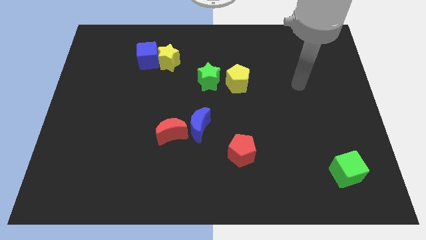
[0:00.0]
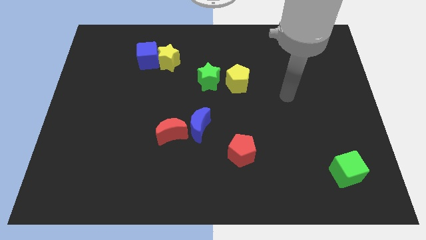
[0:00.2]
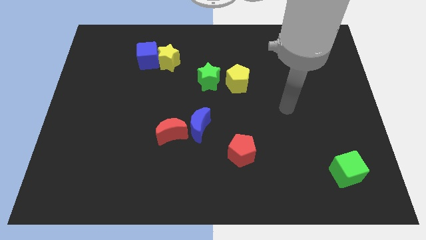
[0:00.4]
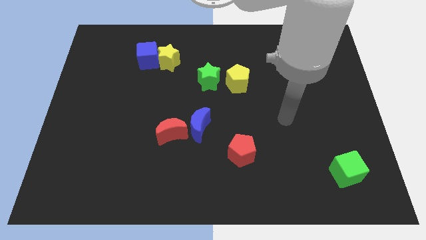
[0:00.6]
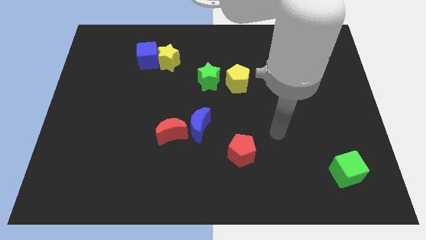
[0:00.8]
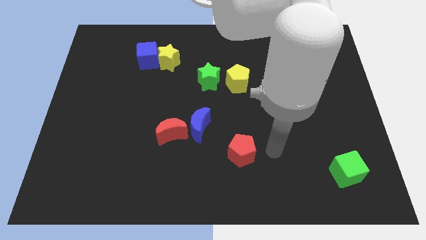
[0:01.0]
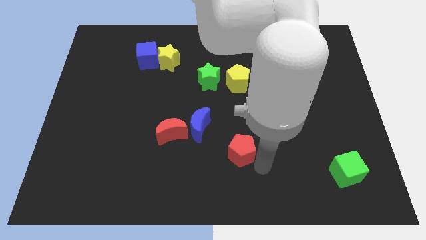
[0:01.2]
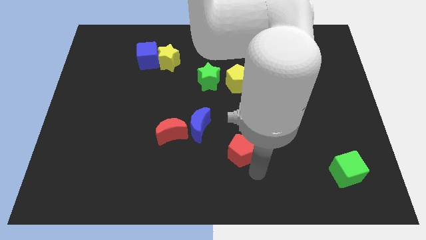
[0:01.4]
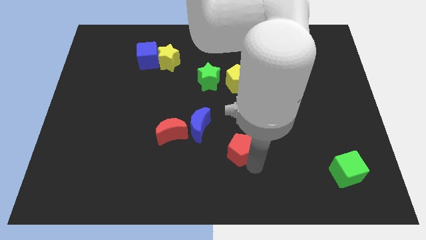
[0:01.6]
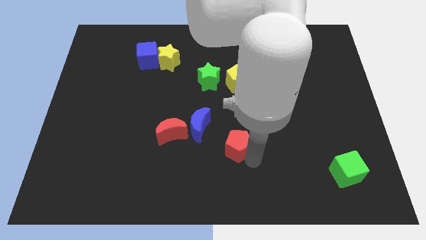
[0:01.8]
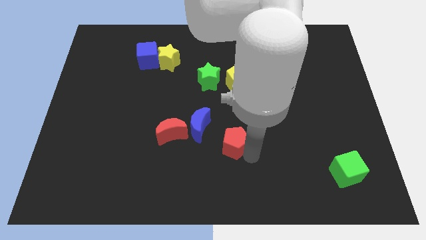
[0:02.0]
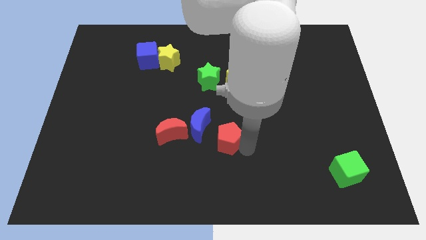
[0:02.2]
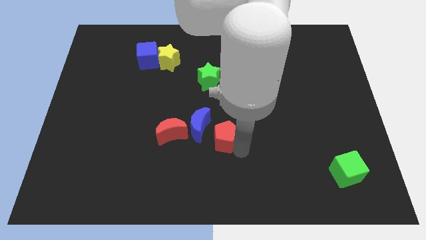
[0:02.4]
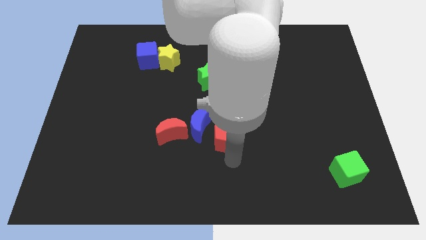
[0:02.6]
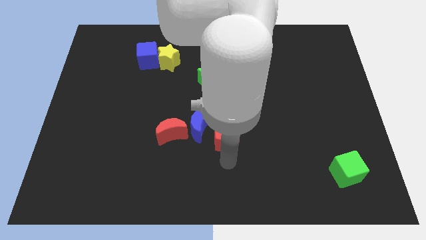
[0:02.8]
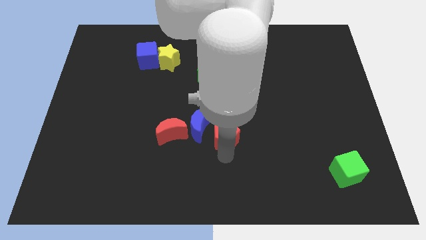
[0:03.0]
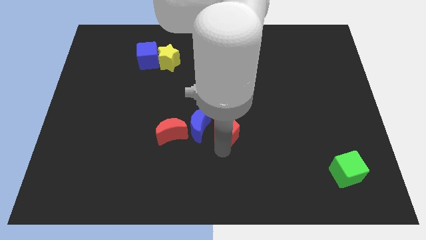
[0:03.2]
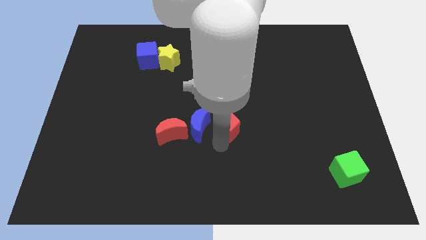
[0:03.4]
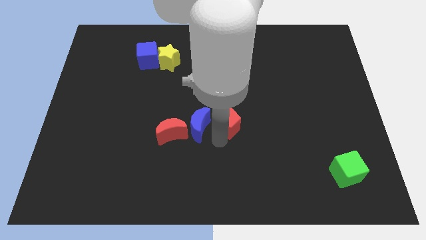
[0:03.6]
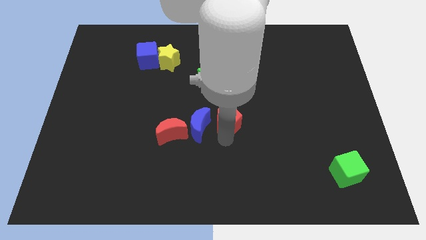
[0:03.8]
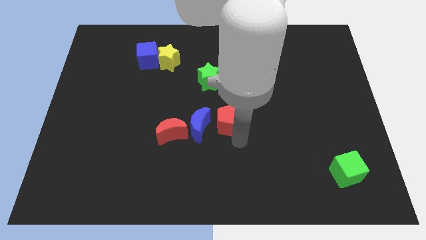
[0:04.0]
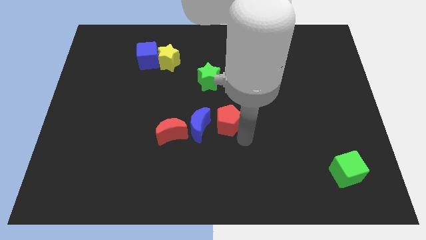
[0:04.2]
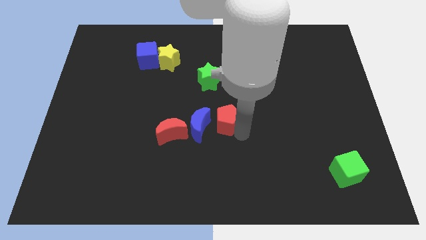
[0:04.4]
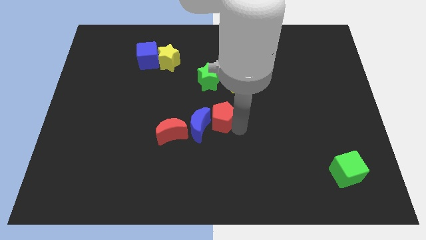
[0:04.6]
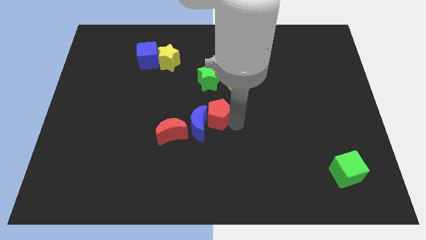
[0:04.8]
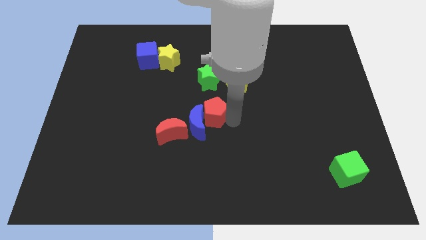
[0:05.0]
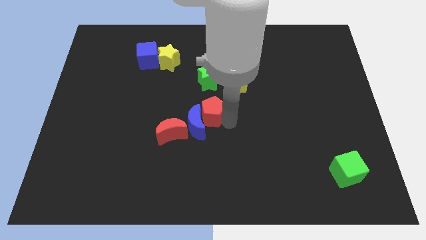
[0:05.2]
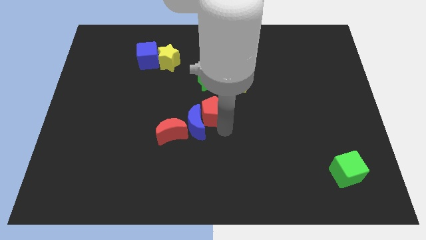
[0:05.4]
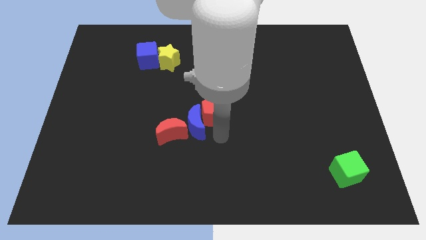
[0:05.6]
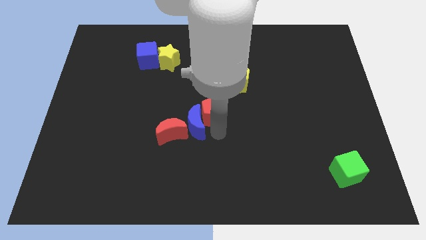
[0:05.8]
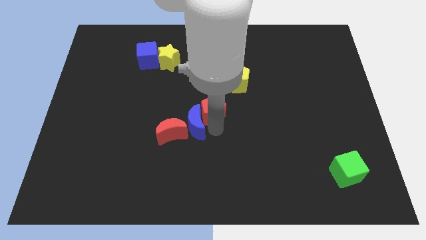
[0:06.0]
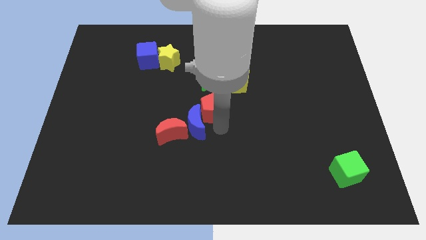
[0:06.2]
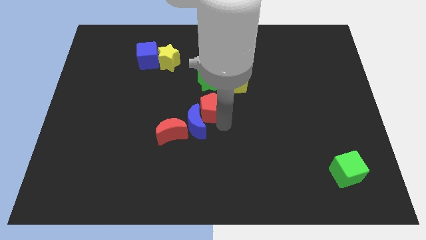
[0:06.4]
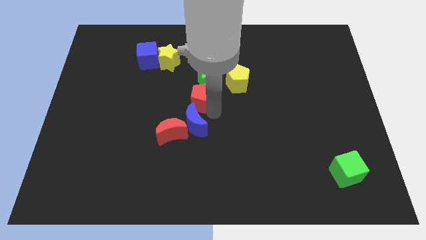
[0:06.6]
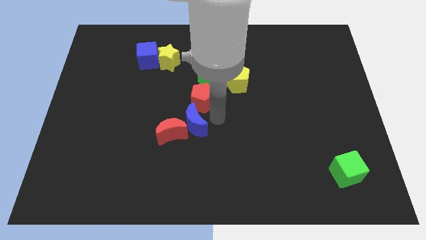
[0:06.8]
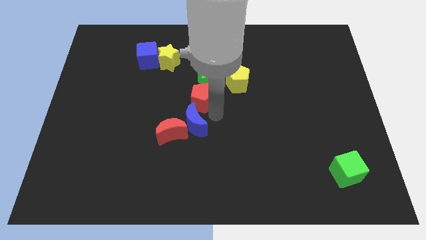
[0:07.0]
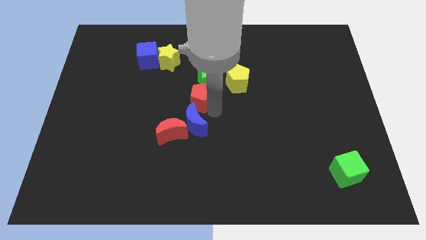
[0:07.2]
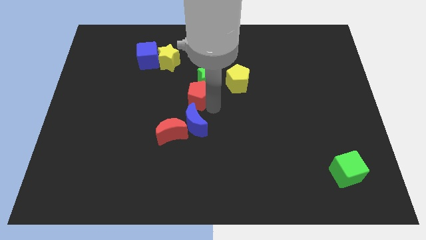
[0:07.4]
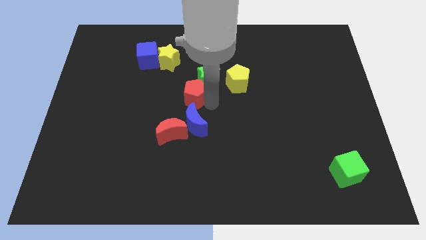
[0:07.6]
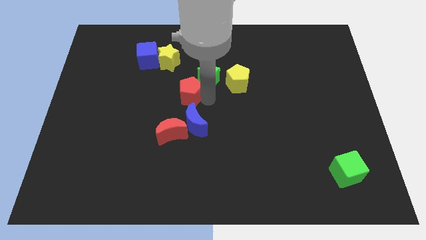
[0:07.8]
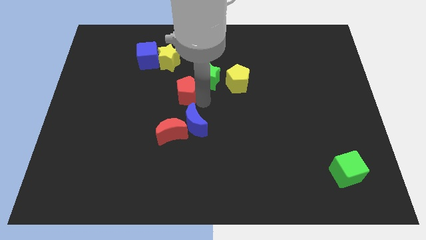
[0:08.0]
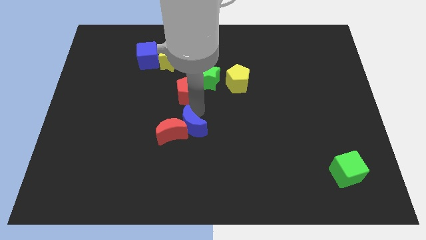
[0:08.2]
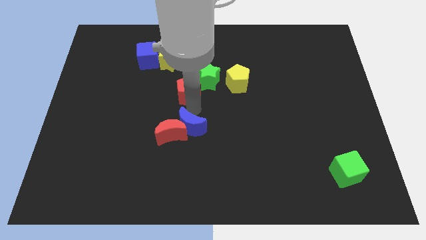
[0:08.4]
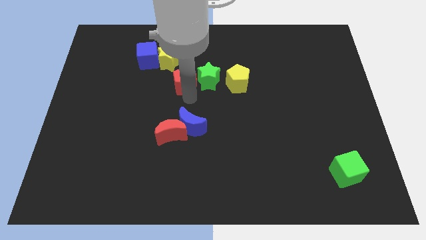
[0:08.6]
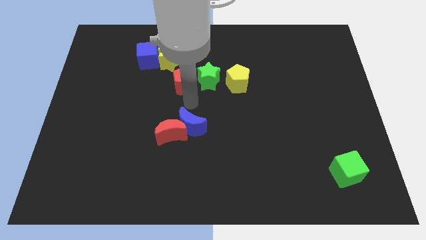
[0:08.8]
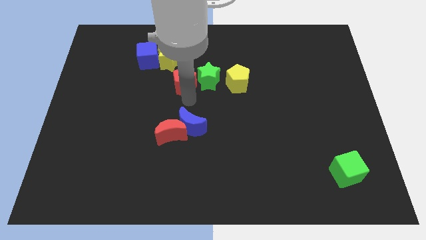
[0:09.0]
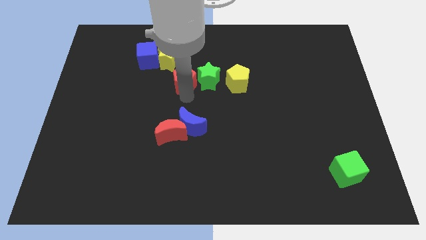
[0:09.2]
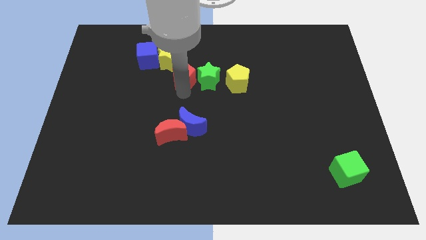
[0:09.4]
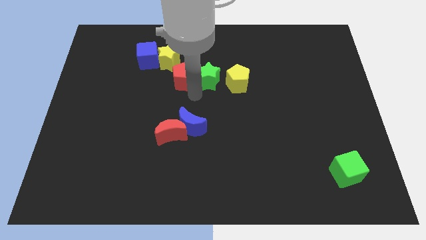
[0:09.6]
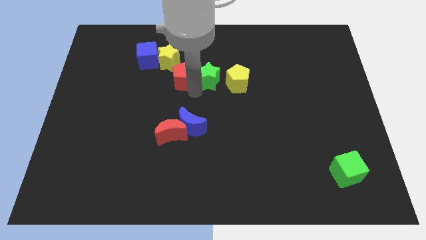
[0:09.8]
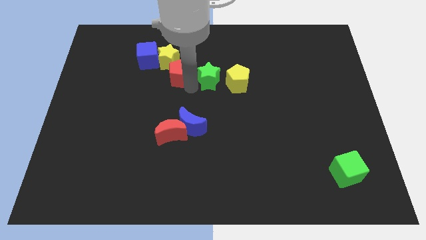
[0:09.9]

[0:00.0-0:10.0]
push the red pentagon next to the yellow star

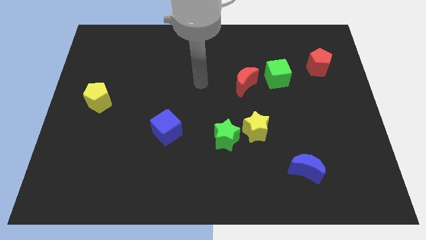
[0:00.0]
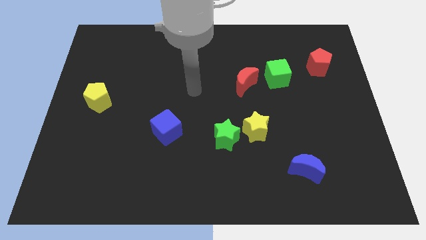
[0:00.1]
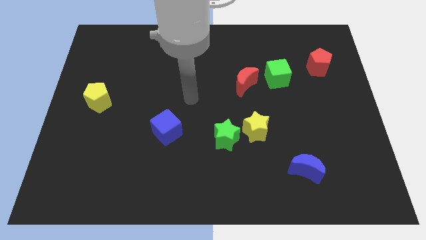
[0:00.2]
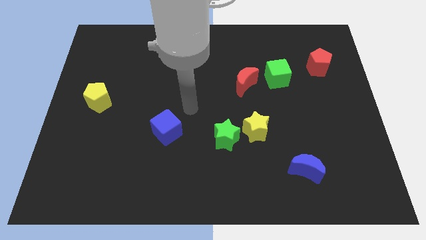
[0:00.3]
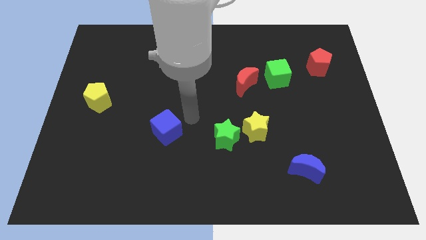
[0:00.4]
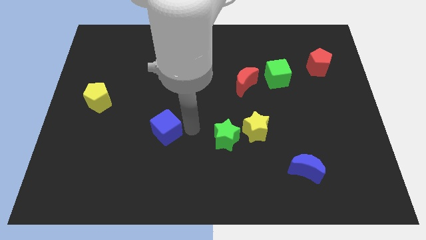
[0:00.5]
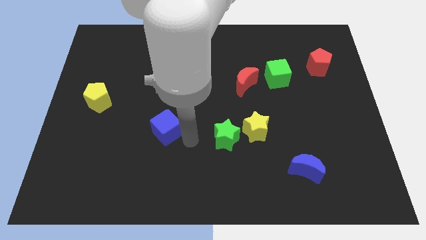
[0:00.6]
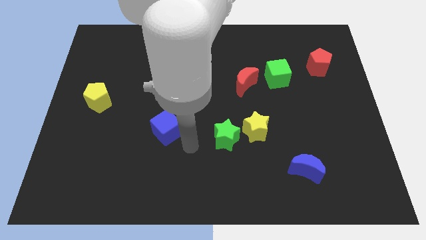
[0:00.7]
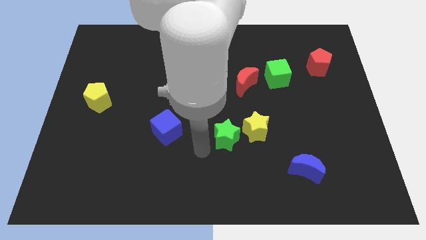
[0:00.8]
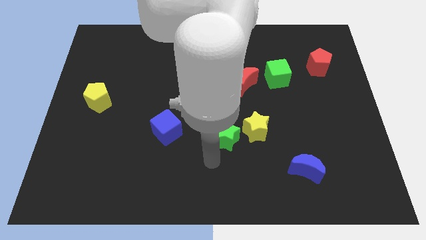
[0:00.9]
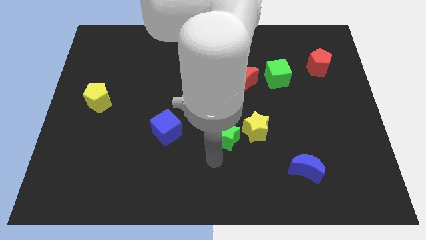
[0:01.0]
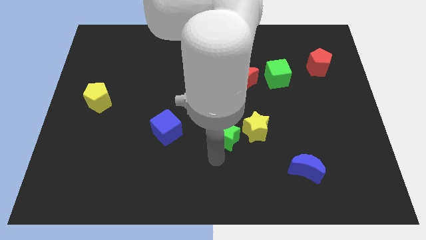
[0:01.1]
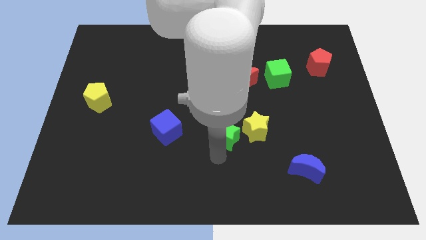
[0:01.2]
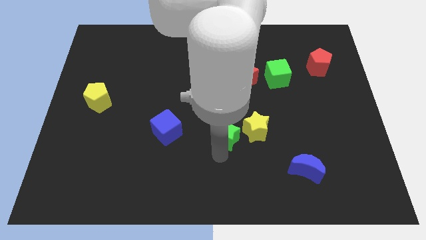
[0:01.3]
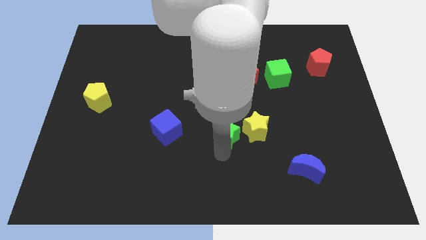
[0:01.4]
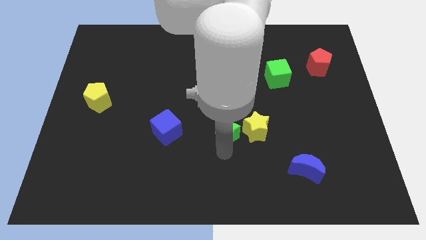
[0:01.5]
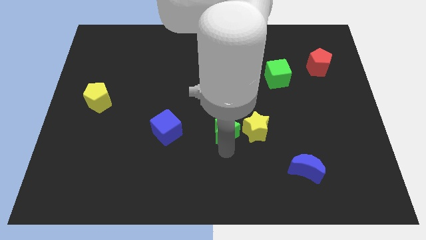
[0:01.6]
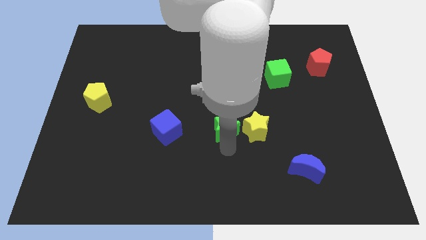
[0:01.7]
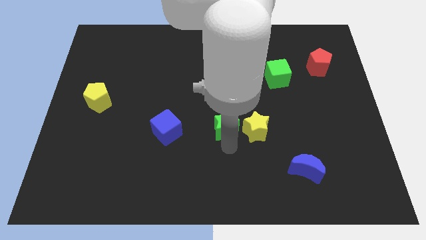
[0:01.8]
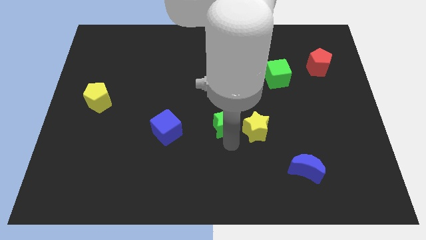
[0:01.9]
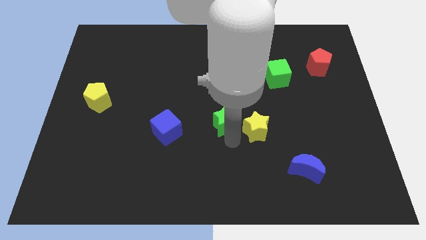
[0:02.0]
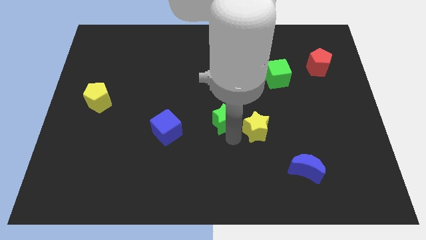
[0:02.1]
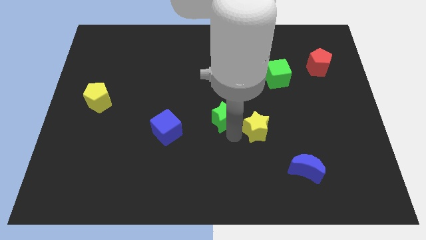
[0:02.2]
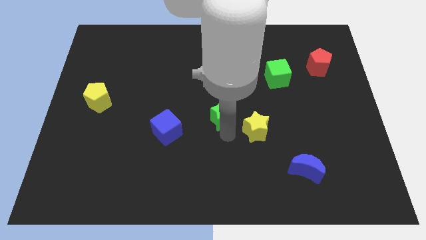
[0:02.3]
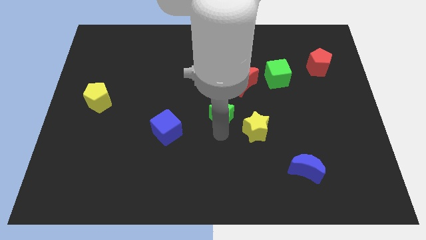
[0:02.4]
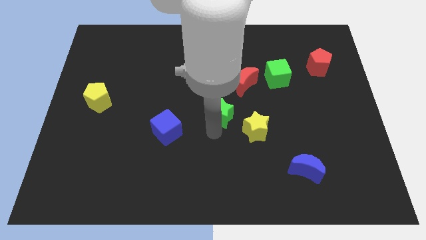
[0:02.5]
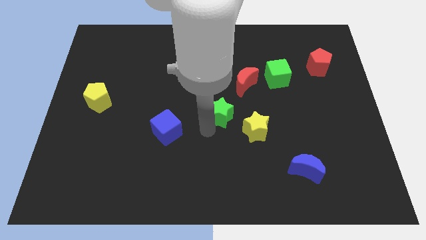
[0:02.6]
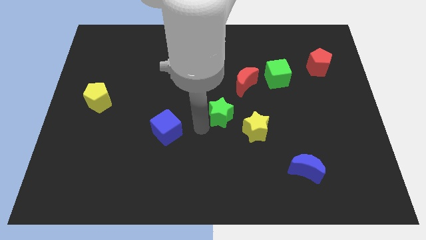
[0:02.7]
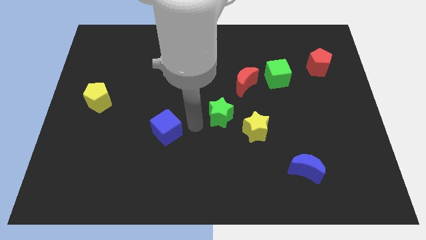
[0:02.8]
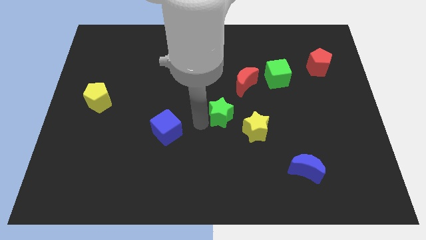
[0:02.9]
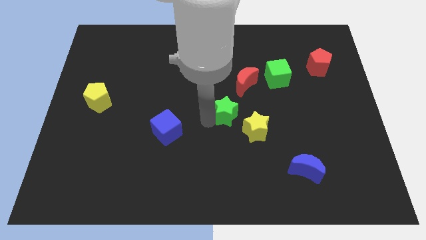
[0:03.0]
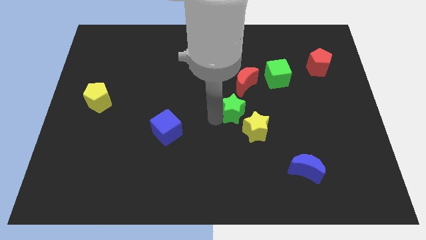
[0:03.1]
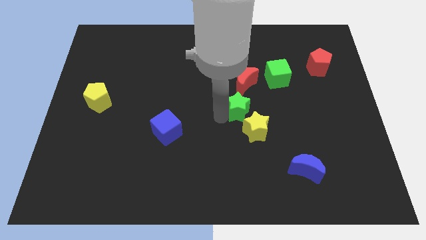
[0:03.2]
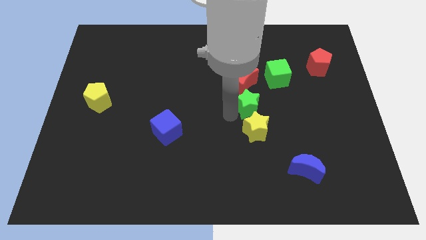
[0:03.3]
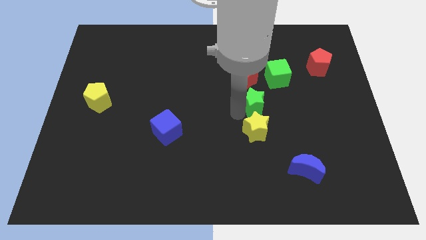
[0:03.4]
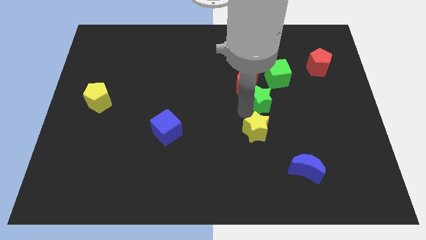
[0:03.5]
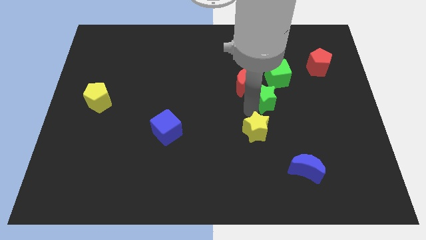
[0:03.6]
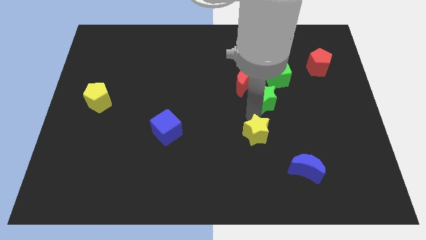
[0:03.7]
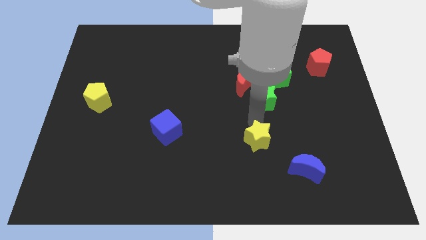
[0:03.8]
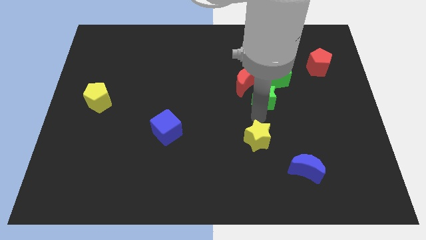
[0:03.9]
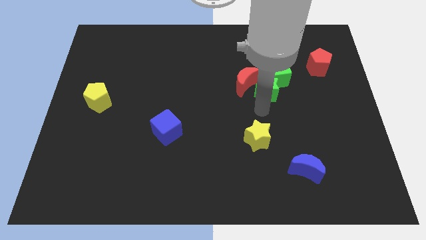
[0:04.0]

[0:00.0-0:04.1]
push the green star close to the green cube
